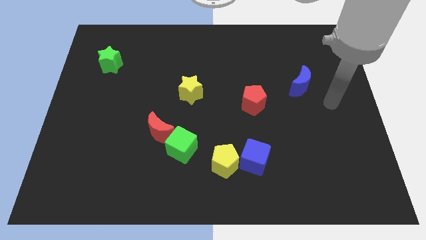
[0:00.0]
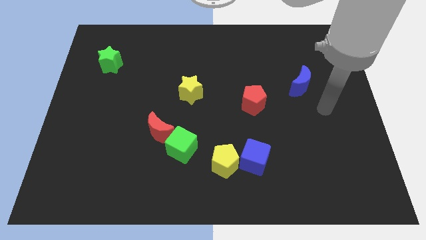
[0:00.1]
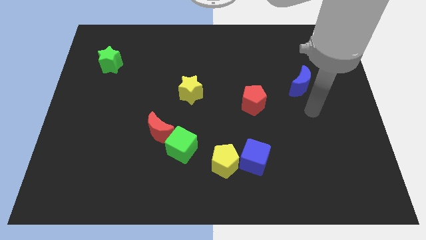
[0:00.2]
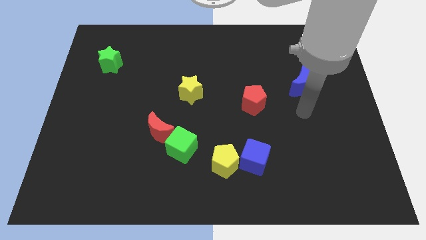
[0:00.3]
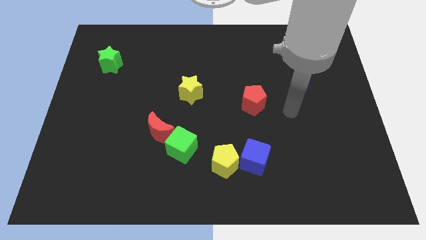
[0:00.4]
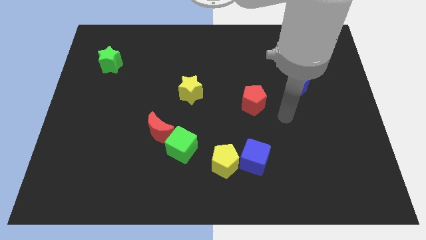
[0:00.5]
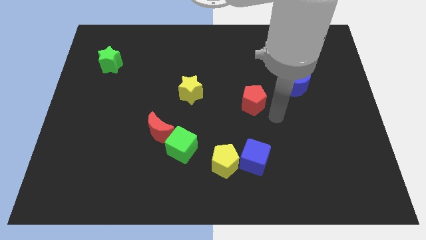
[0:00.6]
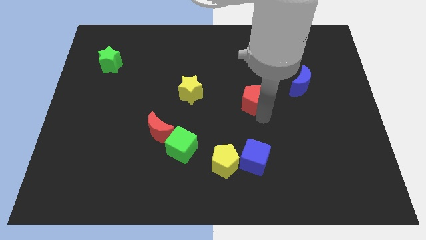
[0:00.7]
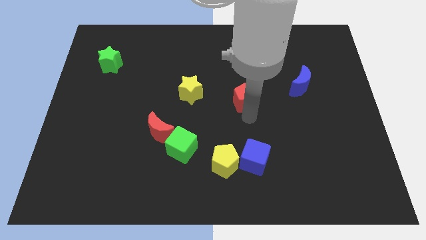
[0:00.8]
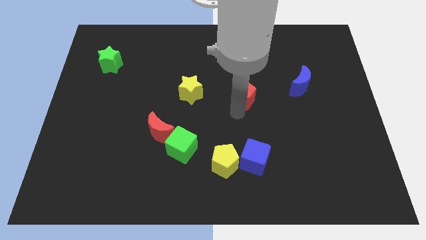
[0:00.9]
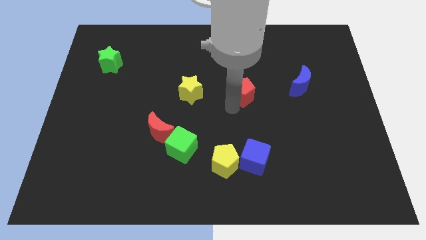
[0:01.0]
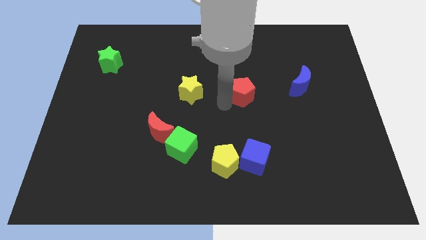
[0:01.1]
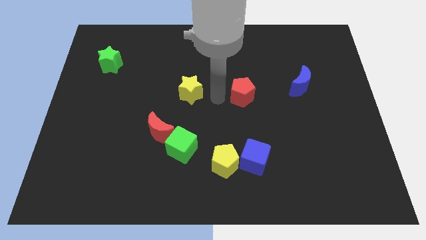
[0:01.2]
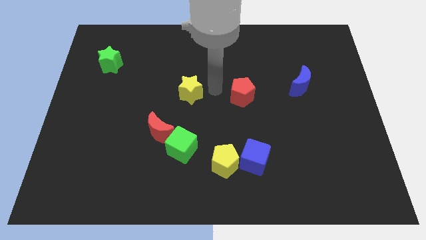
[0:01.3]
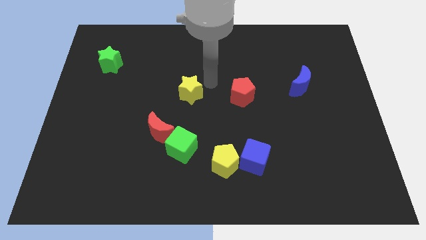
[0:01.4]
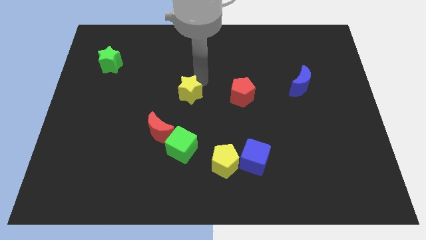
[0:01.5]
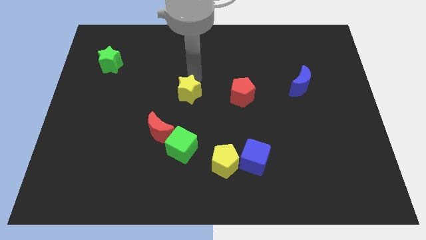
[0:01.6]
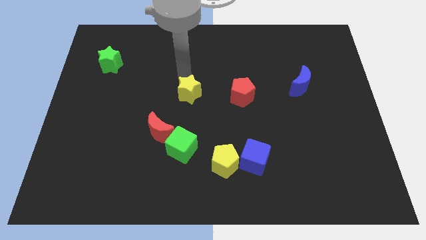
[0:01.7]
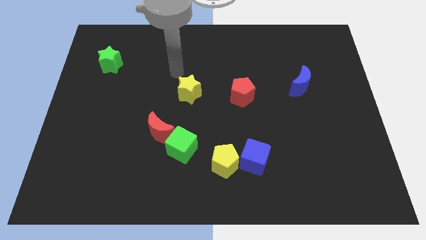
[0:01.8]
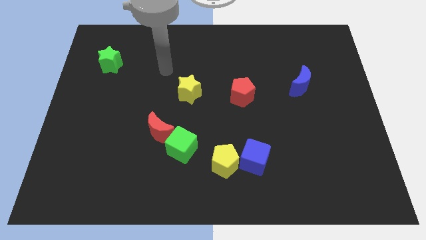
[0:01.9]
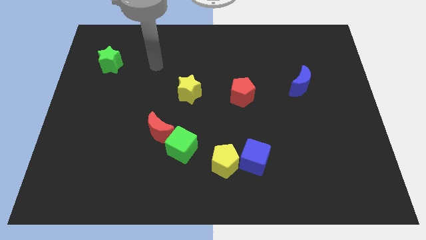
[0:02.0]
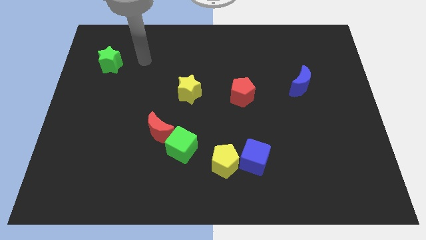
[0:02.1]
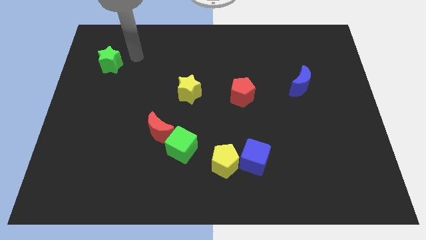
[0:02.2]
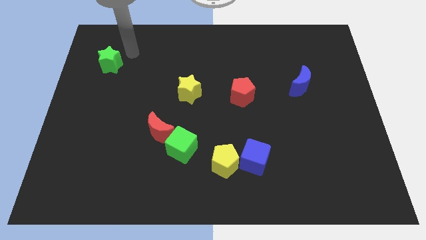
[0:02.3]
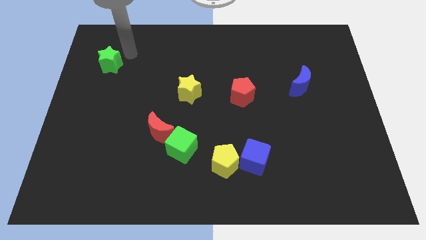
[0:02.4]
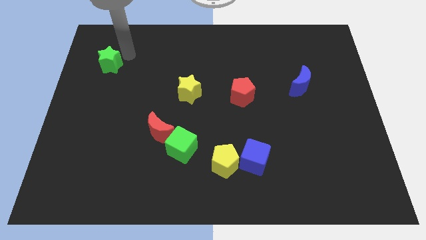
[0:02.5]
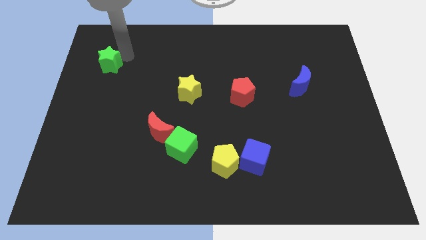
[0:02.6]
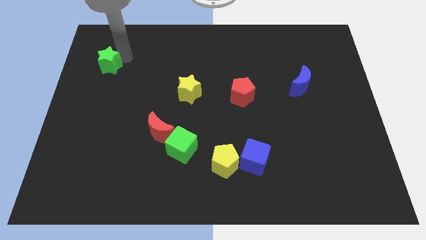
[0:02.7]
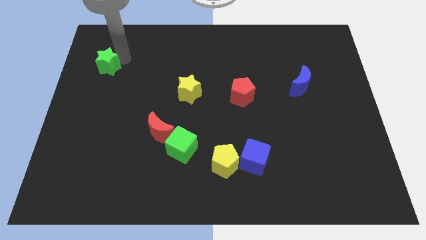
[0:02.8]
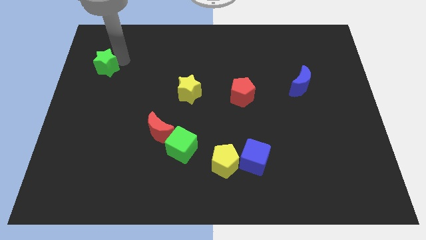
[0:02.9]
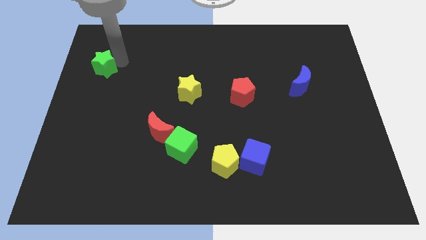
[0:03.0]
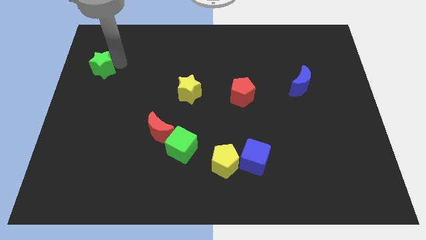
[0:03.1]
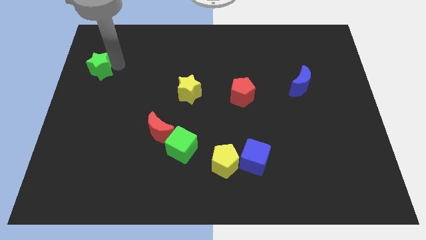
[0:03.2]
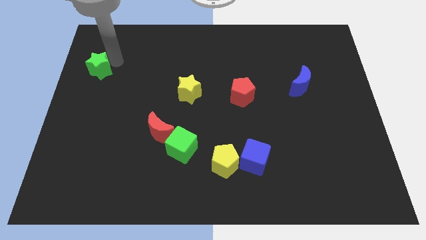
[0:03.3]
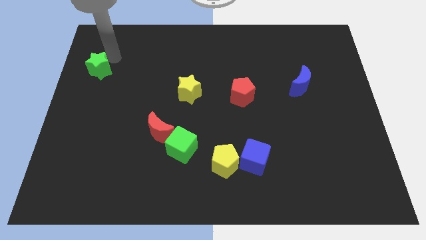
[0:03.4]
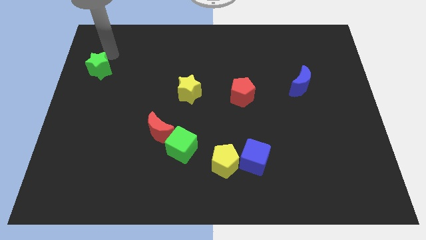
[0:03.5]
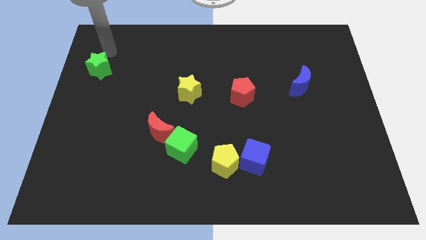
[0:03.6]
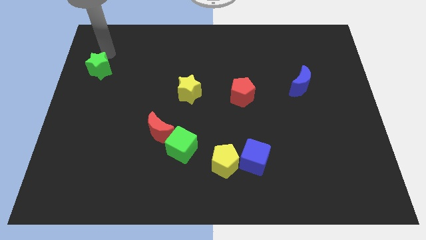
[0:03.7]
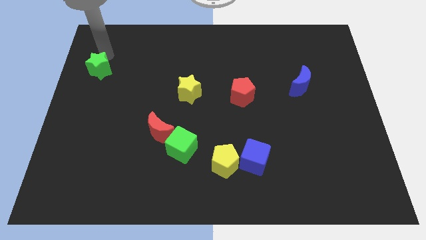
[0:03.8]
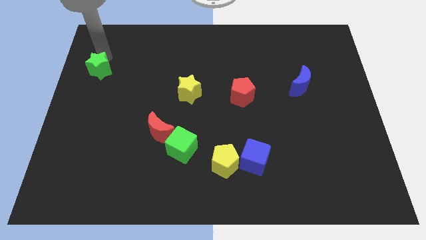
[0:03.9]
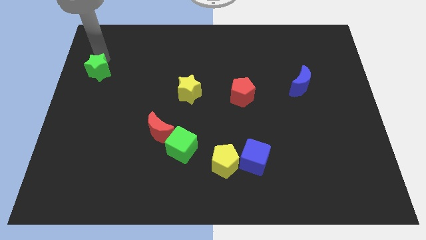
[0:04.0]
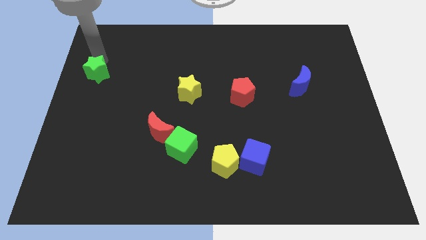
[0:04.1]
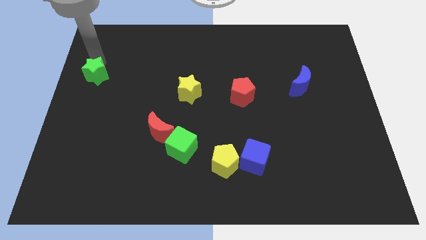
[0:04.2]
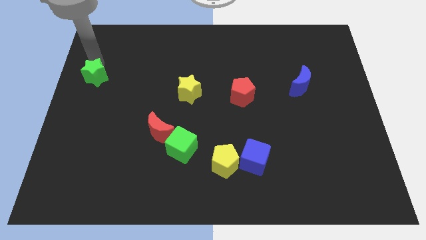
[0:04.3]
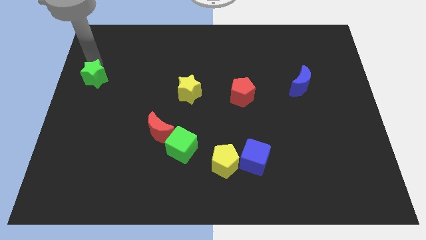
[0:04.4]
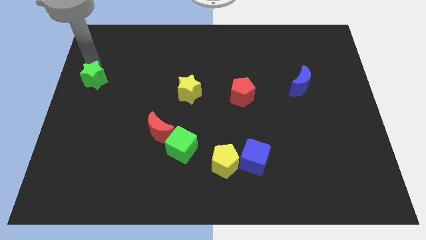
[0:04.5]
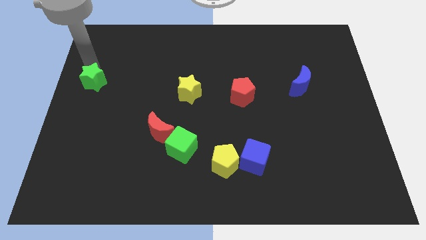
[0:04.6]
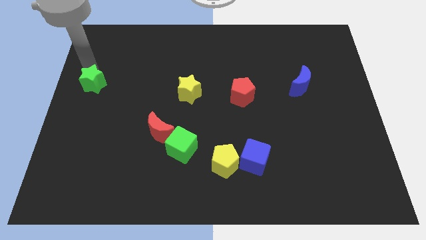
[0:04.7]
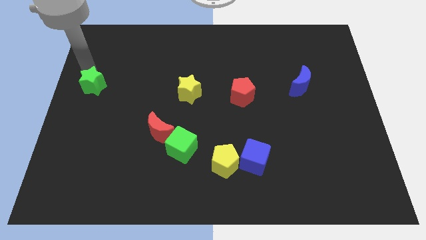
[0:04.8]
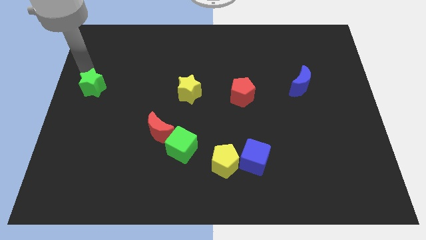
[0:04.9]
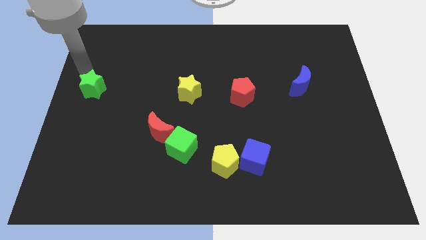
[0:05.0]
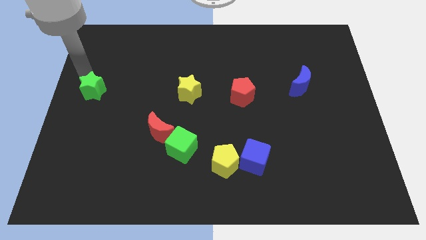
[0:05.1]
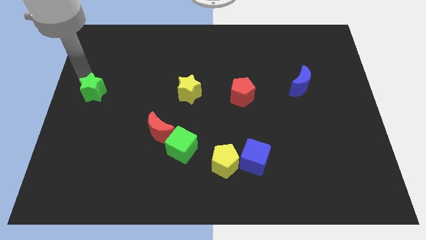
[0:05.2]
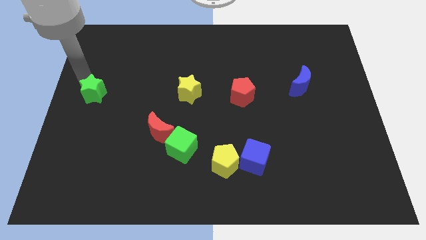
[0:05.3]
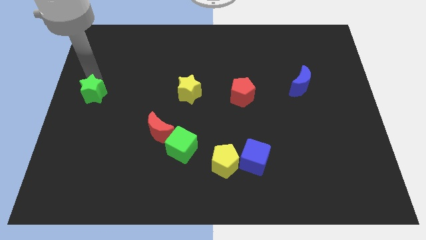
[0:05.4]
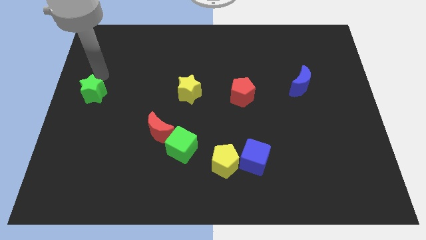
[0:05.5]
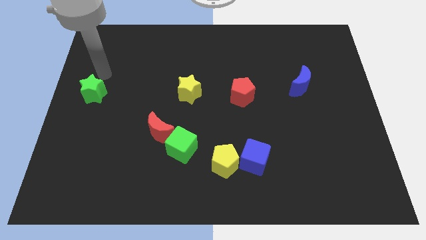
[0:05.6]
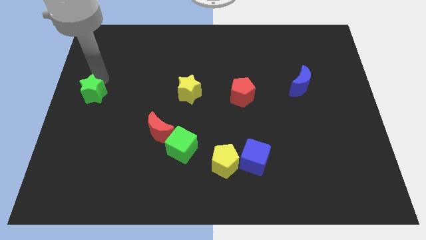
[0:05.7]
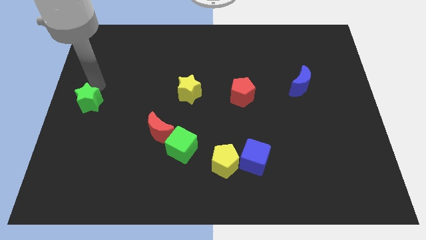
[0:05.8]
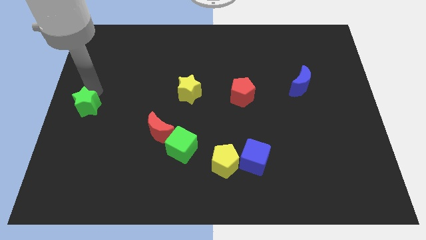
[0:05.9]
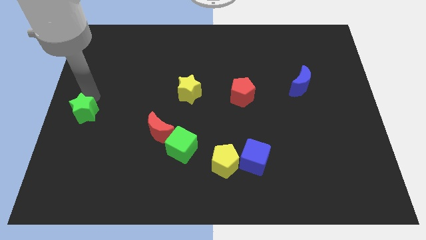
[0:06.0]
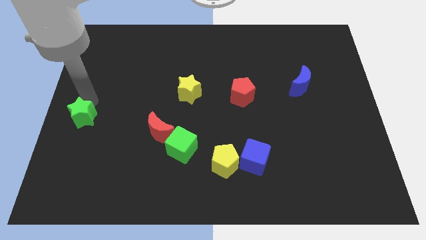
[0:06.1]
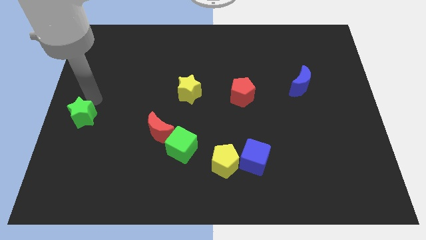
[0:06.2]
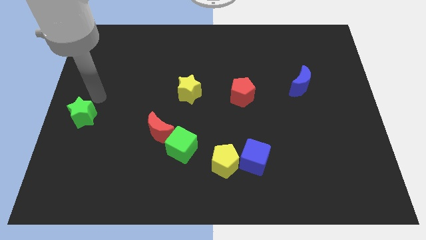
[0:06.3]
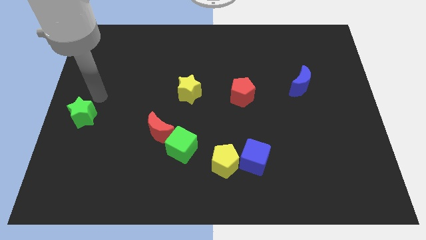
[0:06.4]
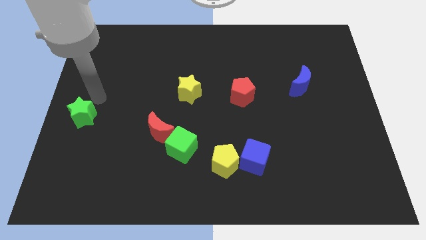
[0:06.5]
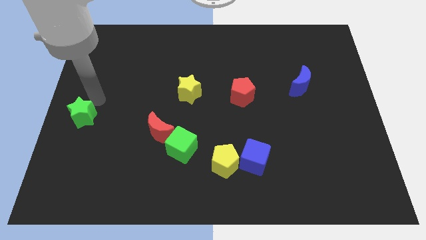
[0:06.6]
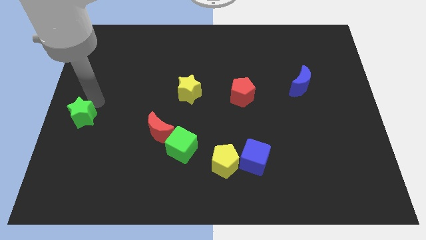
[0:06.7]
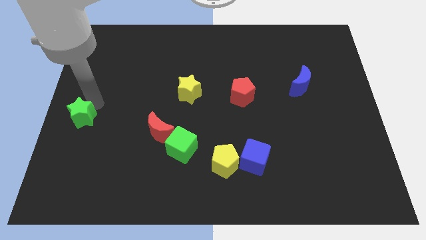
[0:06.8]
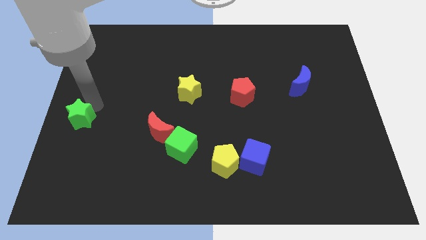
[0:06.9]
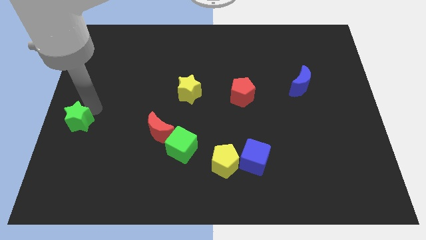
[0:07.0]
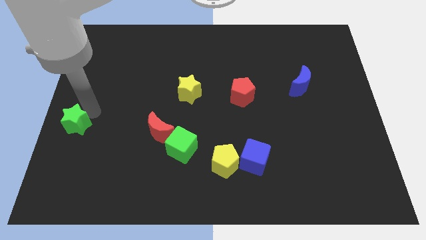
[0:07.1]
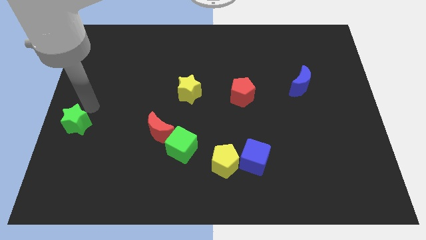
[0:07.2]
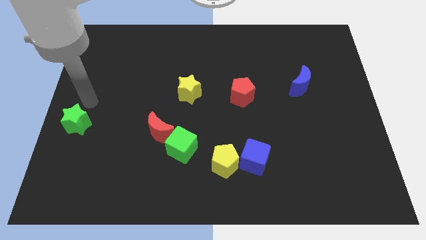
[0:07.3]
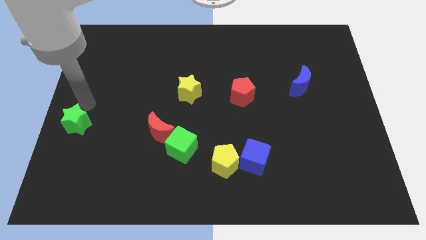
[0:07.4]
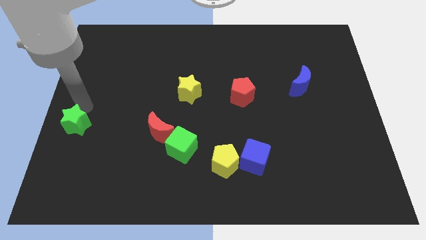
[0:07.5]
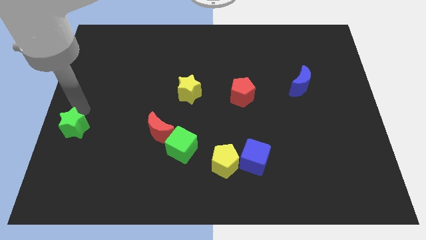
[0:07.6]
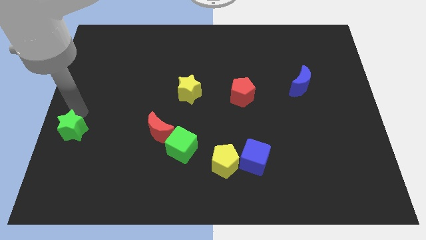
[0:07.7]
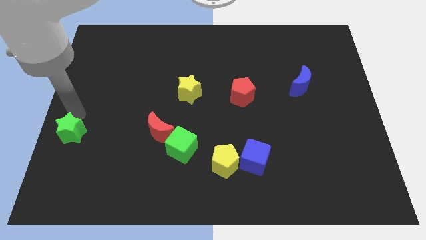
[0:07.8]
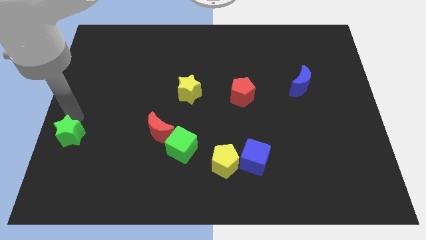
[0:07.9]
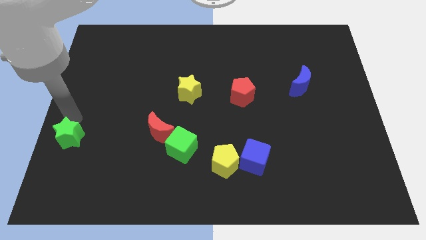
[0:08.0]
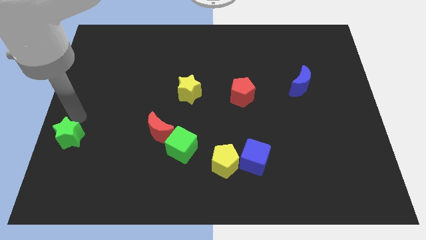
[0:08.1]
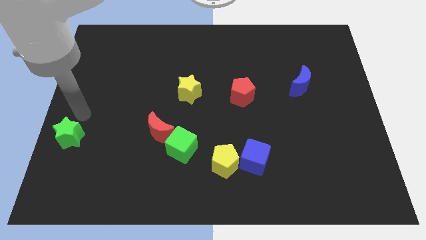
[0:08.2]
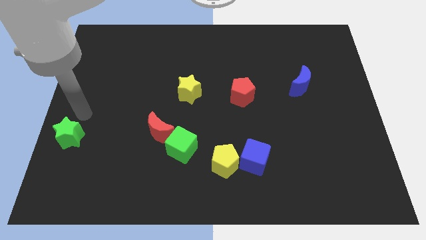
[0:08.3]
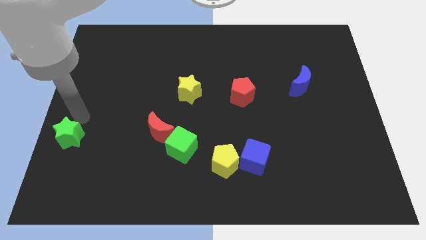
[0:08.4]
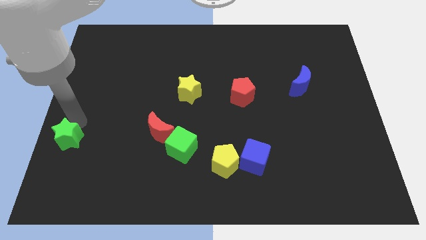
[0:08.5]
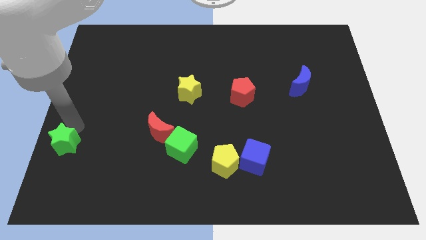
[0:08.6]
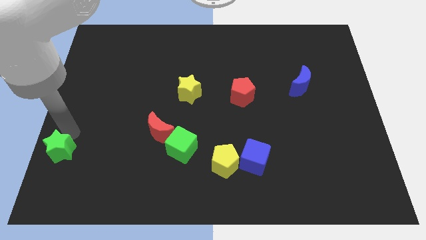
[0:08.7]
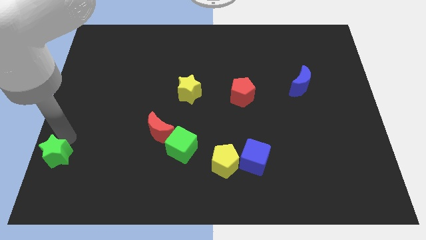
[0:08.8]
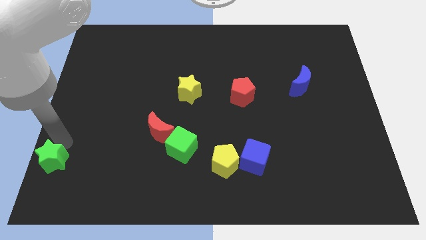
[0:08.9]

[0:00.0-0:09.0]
slide the green star to the bottom left of the board
